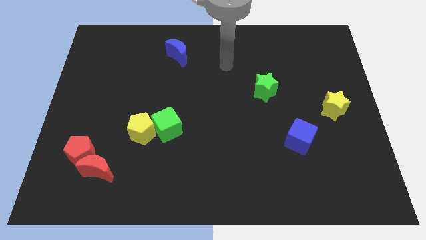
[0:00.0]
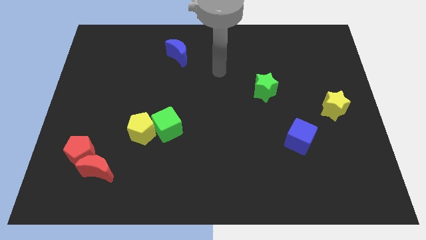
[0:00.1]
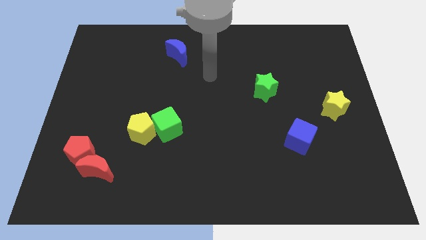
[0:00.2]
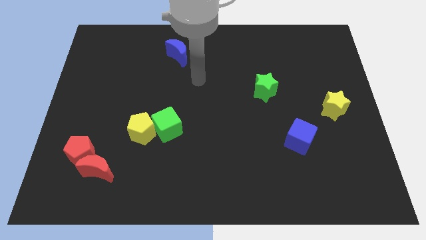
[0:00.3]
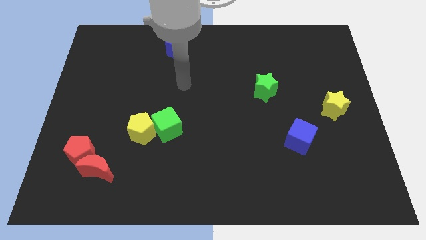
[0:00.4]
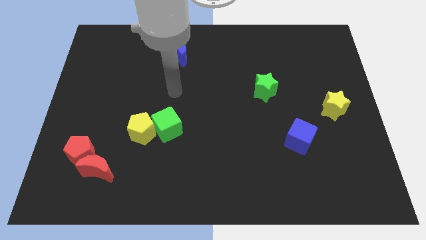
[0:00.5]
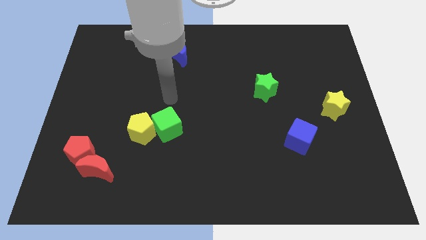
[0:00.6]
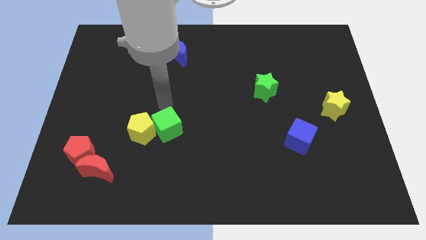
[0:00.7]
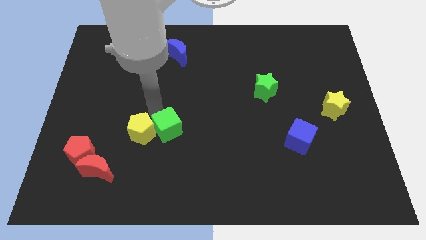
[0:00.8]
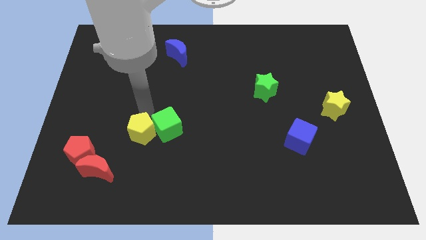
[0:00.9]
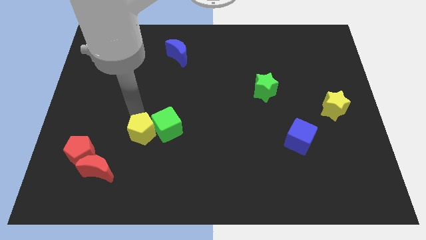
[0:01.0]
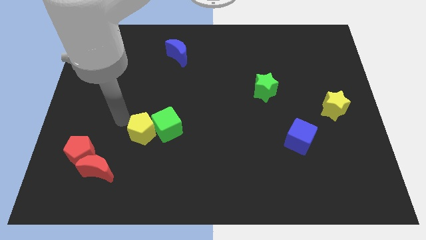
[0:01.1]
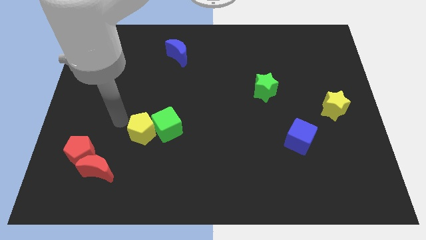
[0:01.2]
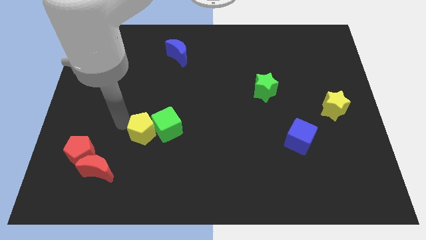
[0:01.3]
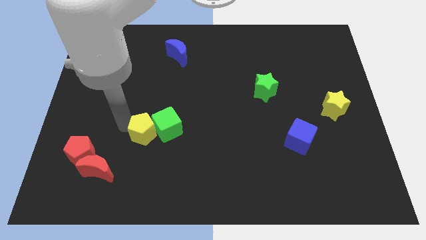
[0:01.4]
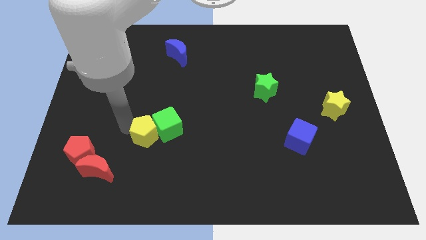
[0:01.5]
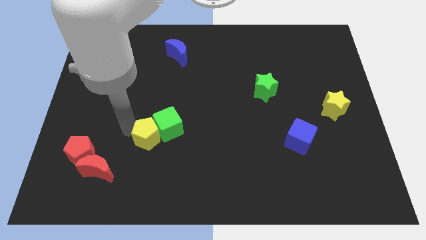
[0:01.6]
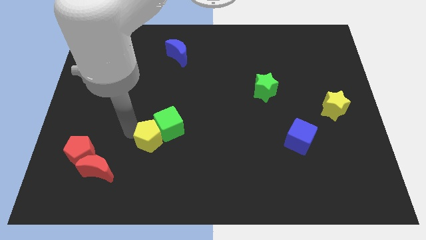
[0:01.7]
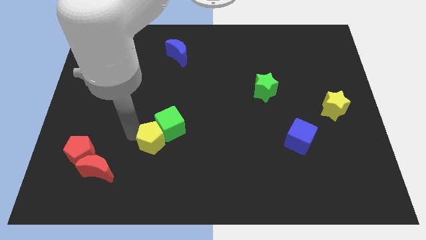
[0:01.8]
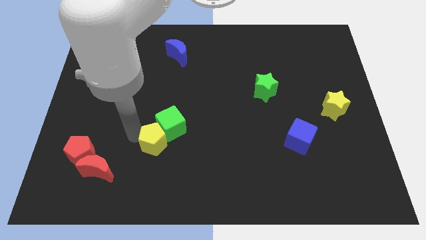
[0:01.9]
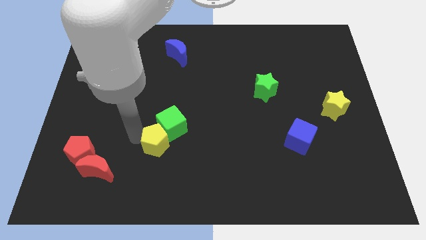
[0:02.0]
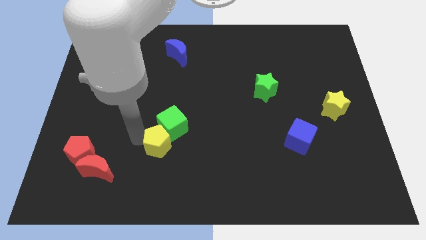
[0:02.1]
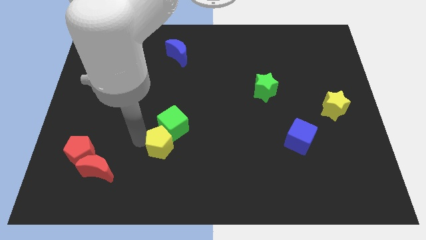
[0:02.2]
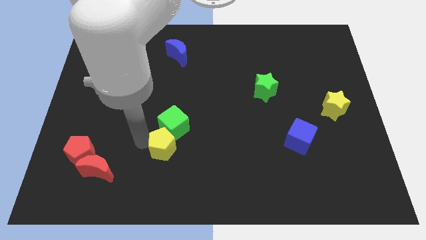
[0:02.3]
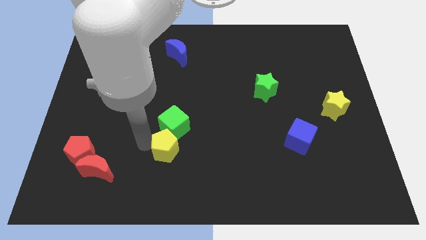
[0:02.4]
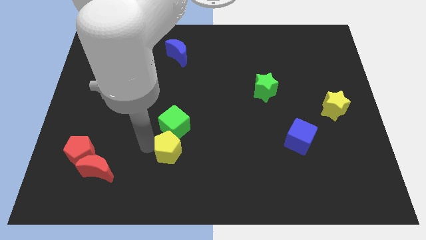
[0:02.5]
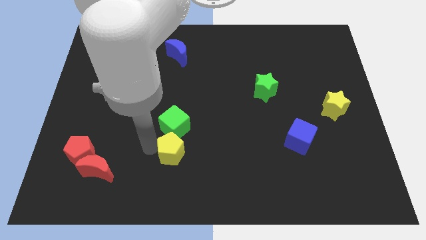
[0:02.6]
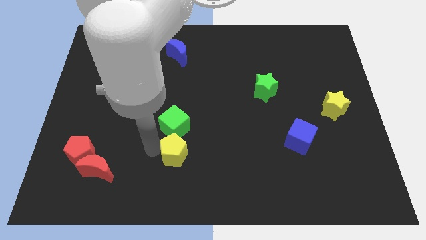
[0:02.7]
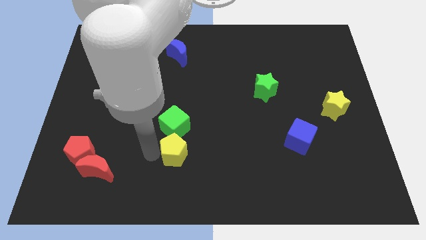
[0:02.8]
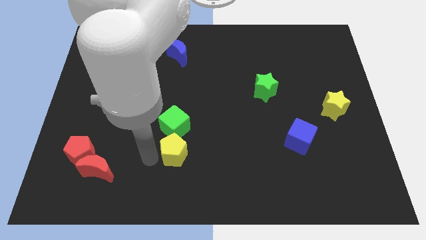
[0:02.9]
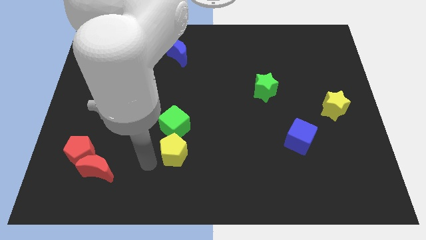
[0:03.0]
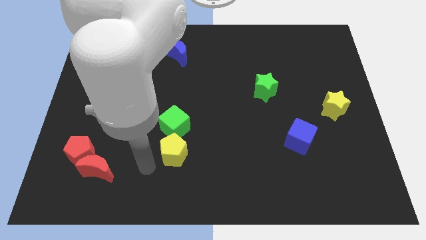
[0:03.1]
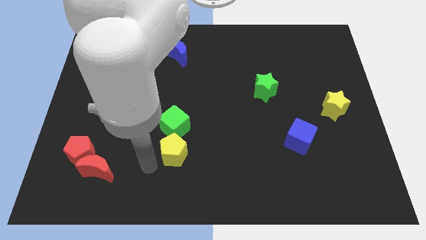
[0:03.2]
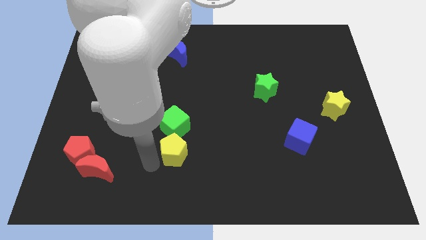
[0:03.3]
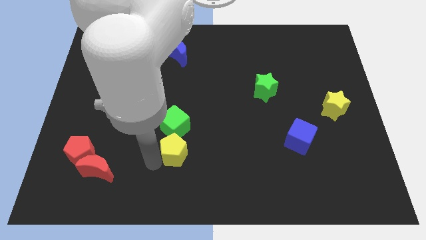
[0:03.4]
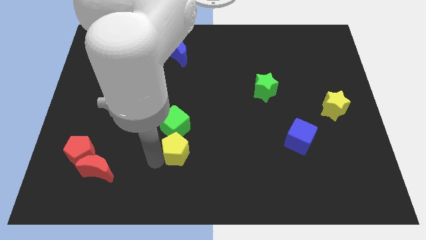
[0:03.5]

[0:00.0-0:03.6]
slightly move the yellow pentagon right

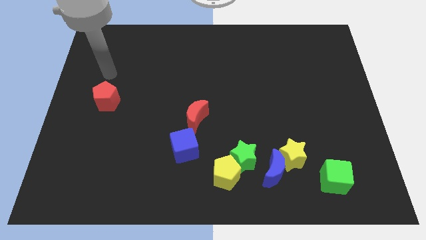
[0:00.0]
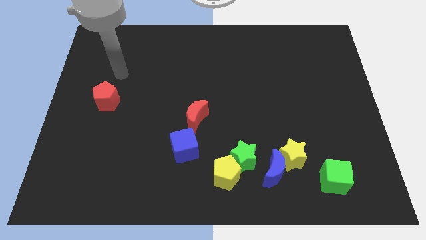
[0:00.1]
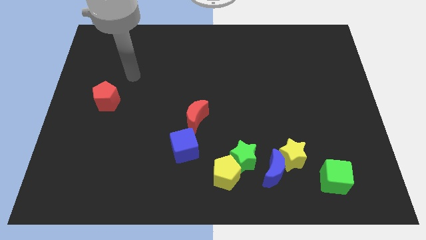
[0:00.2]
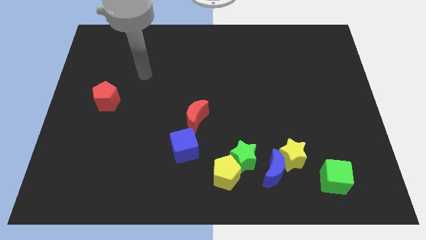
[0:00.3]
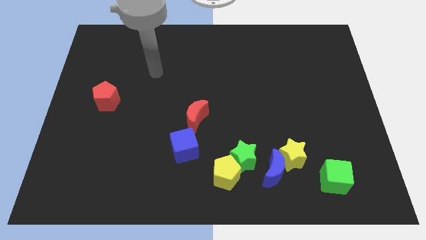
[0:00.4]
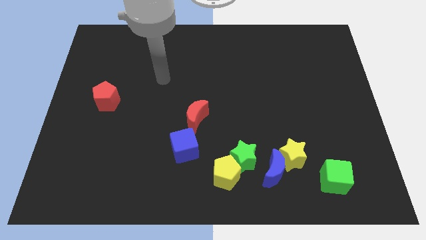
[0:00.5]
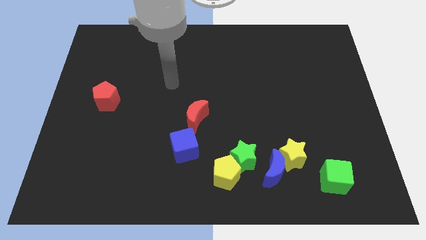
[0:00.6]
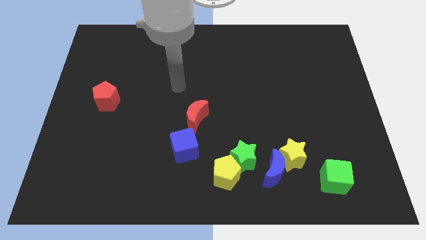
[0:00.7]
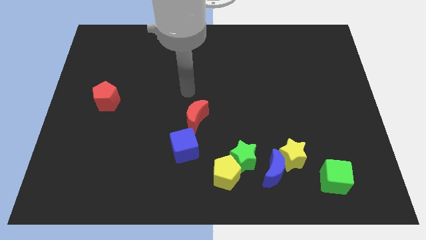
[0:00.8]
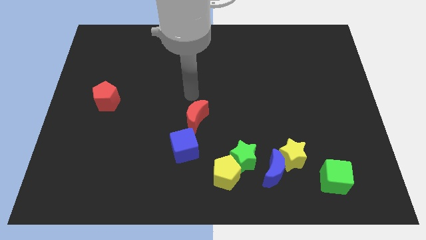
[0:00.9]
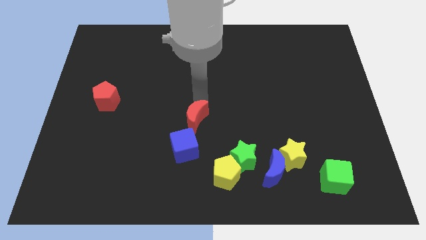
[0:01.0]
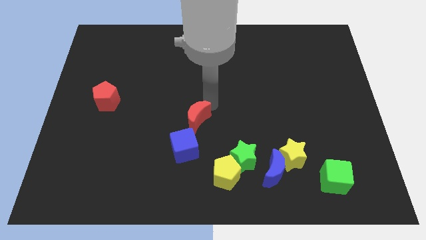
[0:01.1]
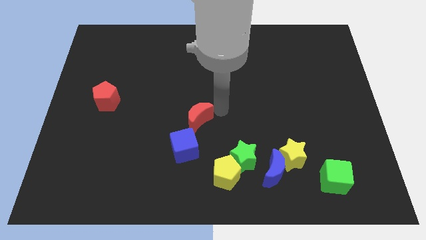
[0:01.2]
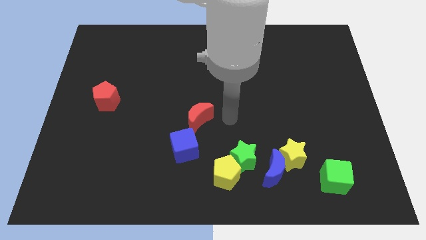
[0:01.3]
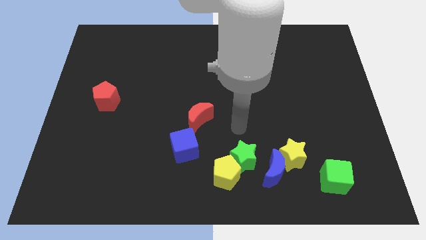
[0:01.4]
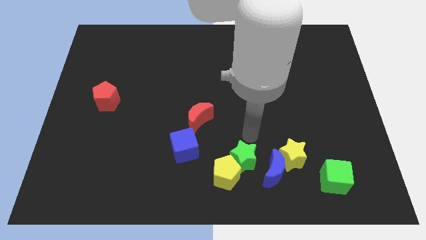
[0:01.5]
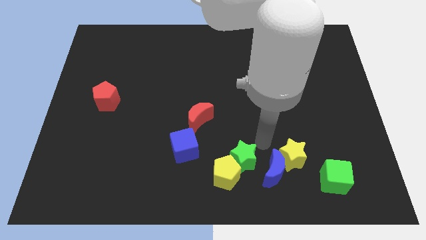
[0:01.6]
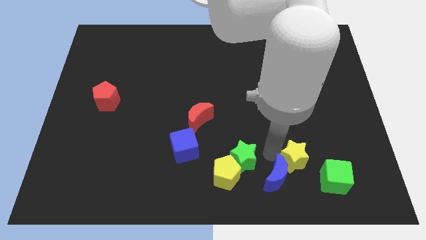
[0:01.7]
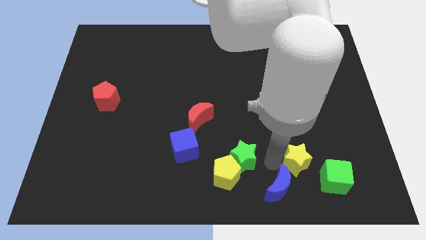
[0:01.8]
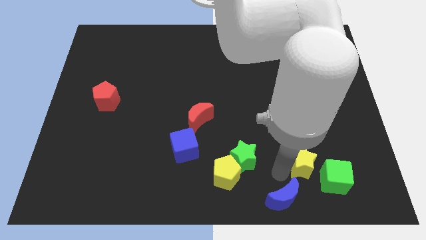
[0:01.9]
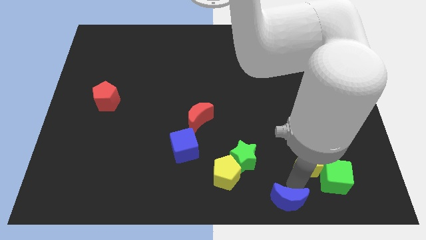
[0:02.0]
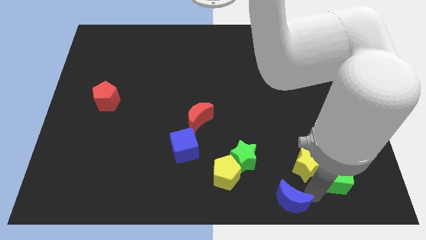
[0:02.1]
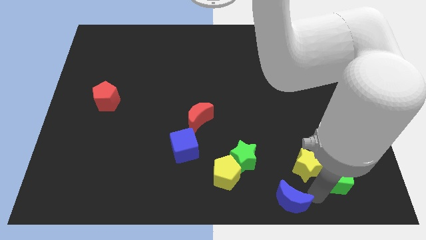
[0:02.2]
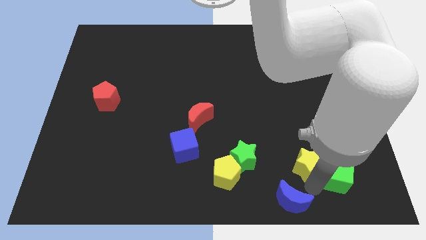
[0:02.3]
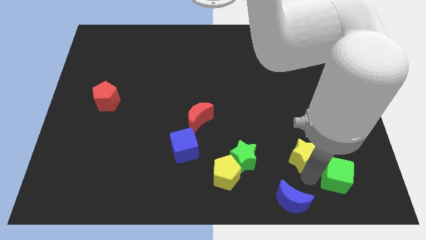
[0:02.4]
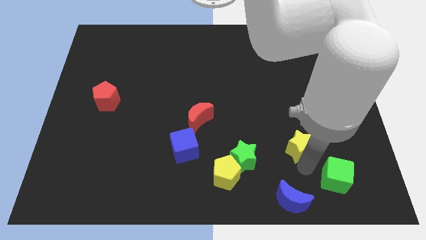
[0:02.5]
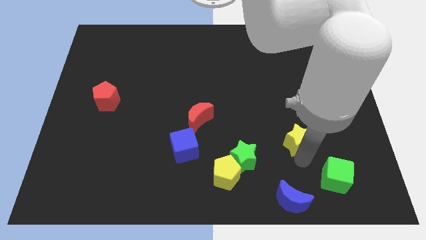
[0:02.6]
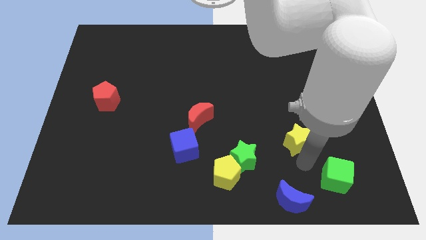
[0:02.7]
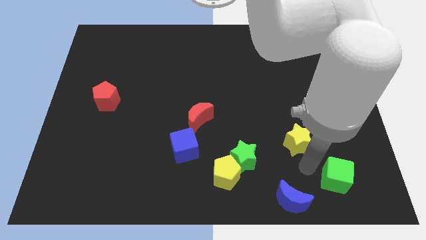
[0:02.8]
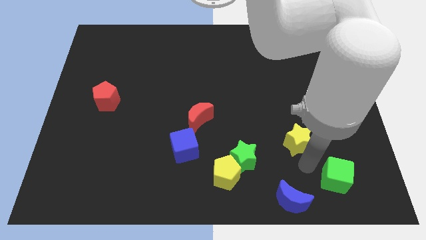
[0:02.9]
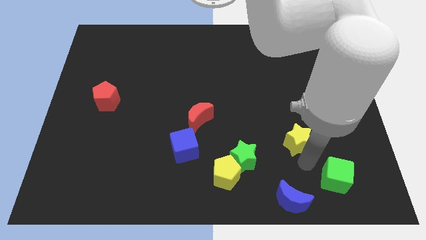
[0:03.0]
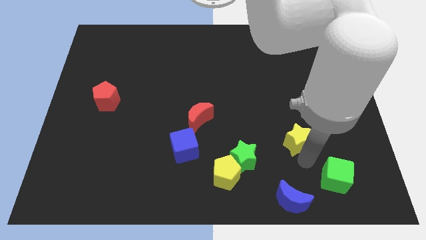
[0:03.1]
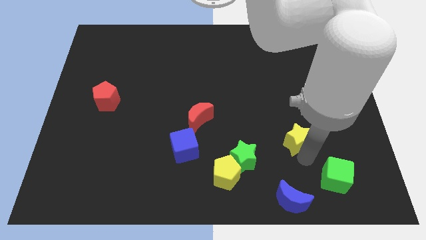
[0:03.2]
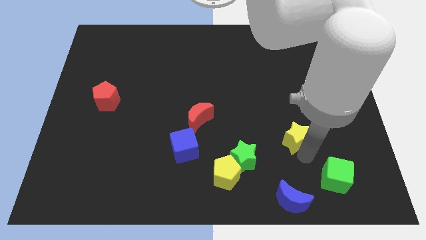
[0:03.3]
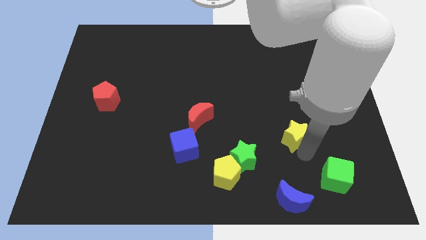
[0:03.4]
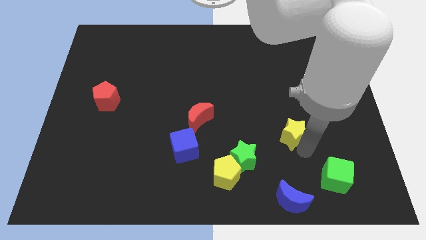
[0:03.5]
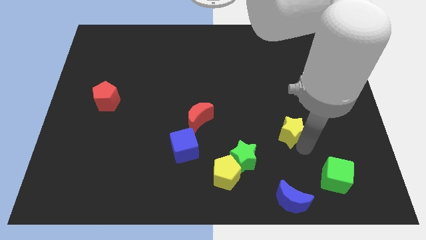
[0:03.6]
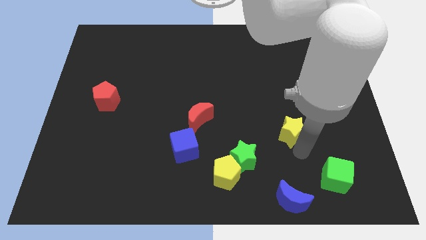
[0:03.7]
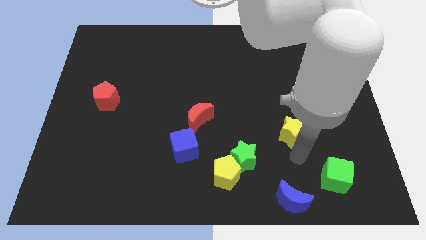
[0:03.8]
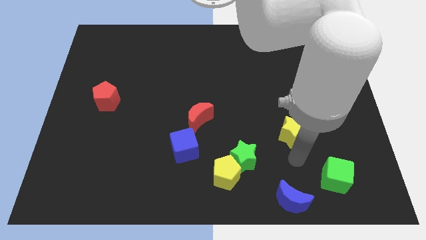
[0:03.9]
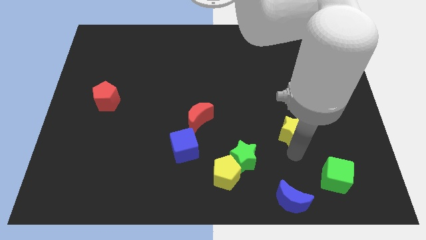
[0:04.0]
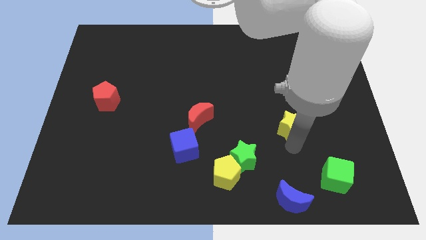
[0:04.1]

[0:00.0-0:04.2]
slightly move the yellow star up
